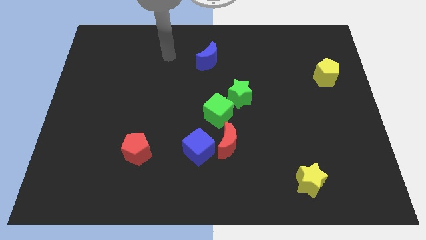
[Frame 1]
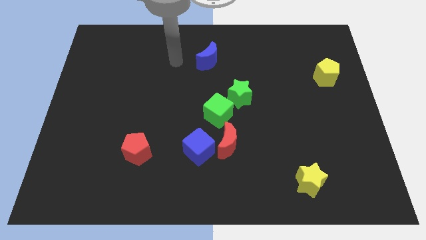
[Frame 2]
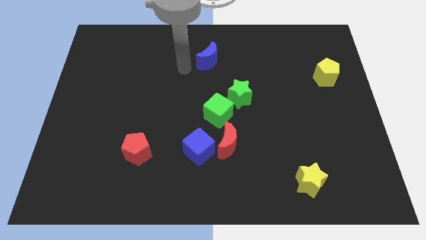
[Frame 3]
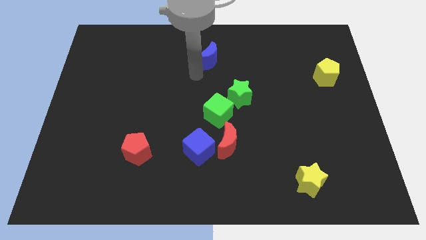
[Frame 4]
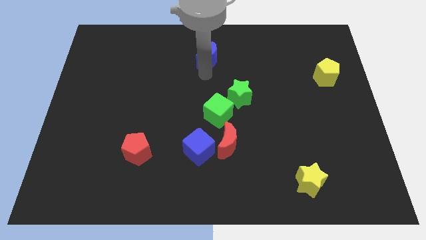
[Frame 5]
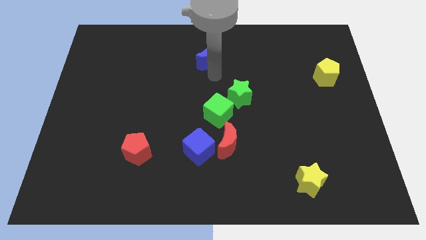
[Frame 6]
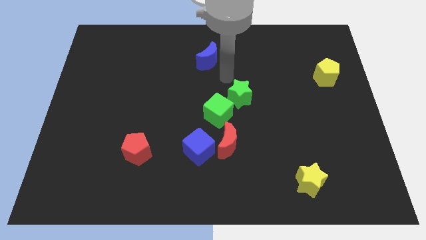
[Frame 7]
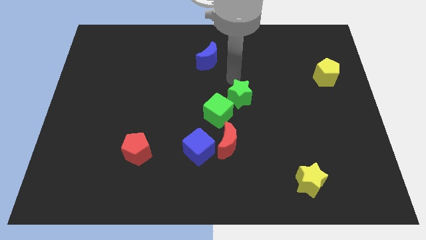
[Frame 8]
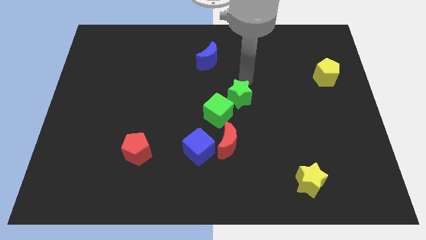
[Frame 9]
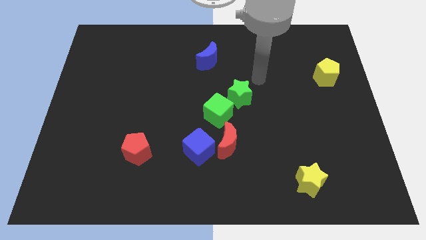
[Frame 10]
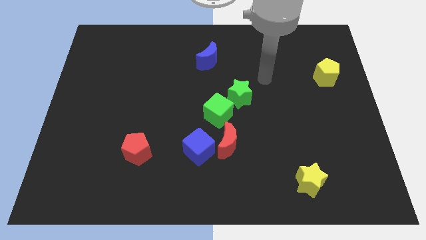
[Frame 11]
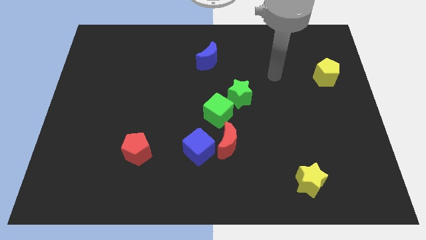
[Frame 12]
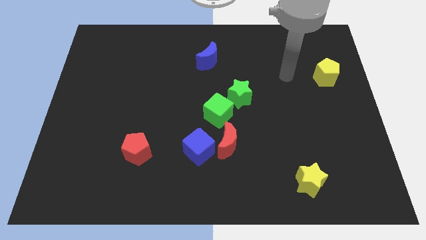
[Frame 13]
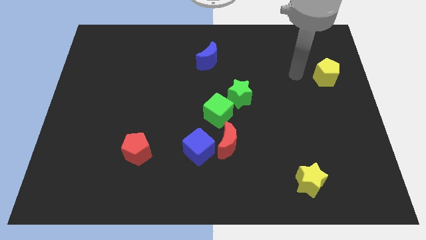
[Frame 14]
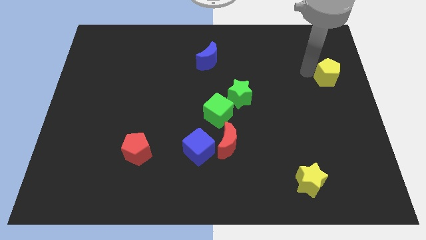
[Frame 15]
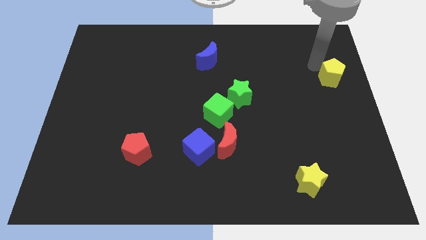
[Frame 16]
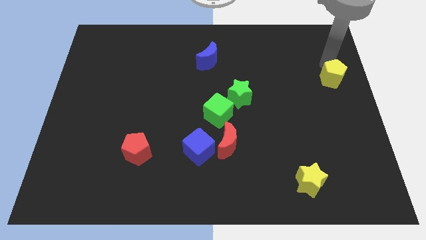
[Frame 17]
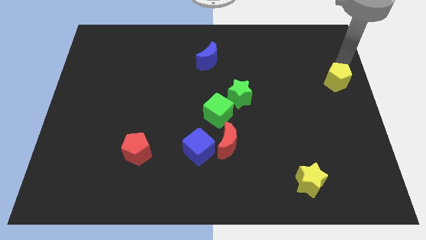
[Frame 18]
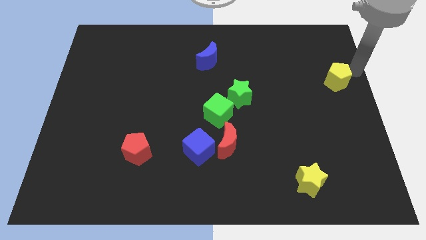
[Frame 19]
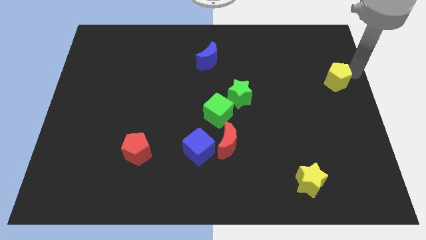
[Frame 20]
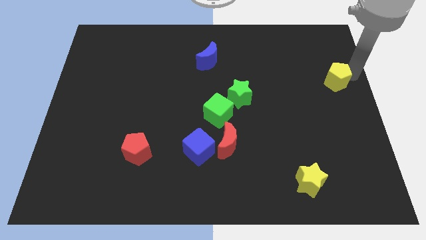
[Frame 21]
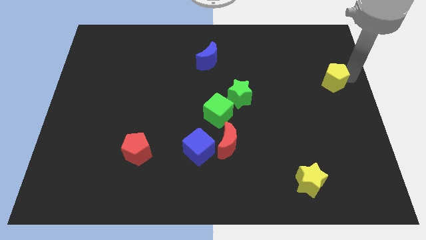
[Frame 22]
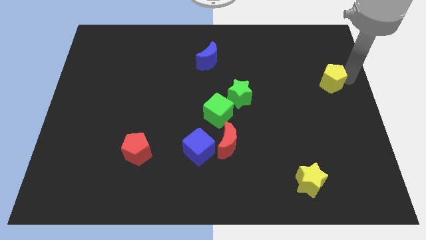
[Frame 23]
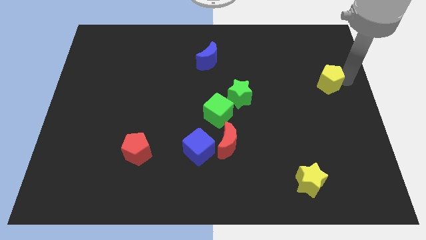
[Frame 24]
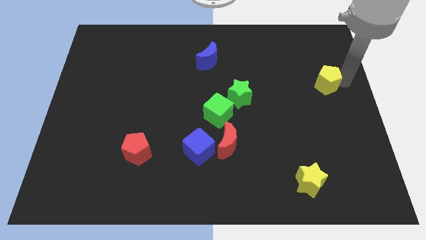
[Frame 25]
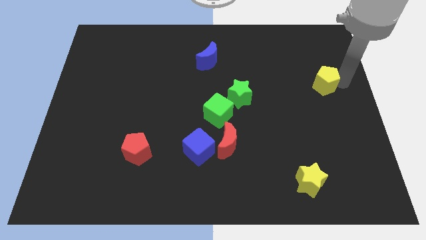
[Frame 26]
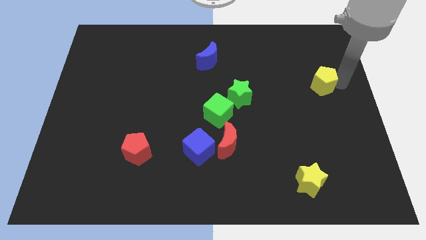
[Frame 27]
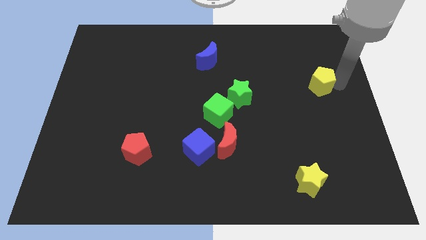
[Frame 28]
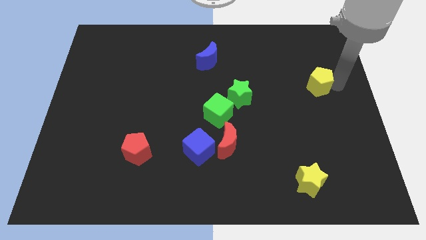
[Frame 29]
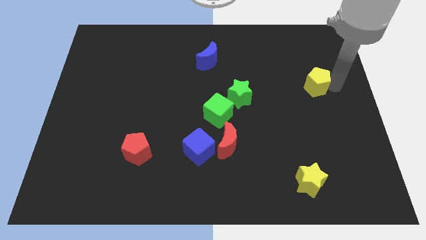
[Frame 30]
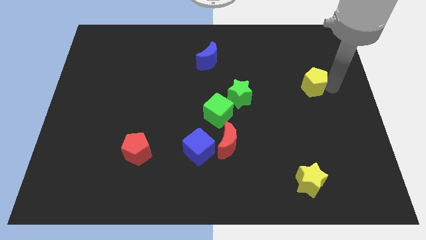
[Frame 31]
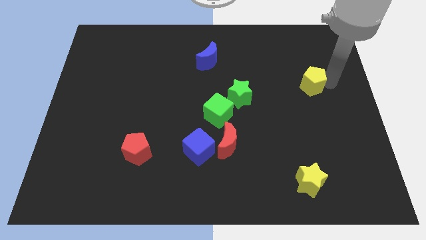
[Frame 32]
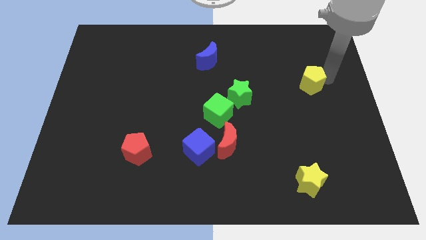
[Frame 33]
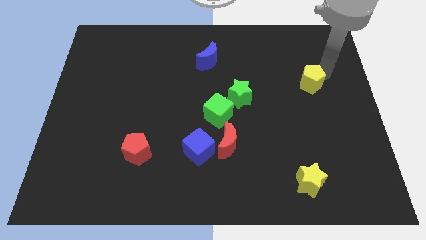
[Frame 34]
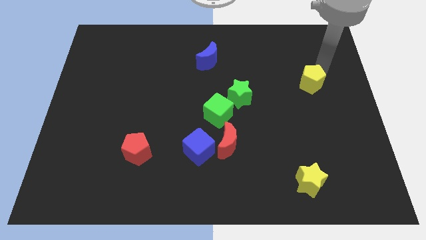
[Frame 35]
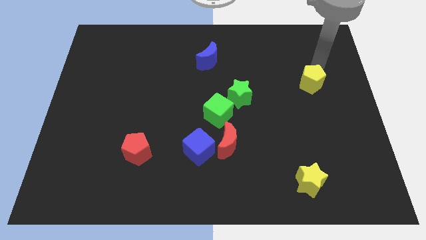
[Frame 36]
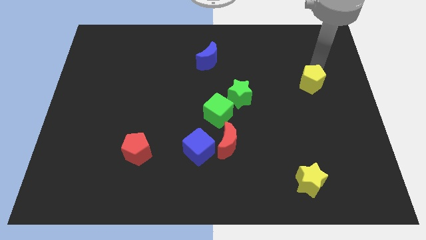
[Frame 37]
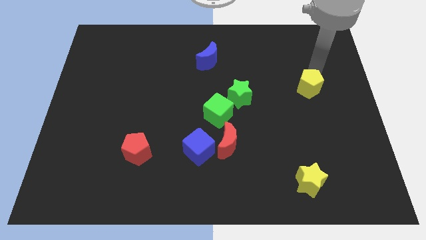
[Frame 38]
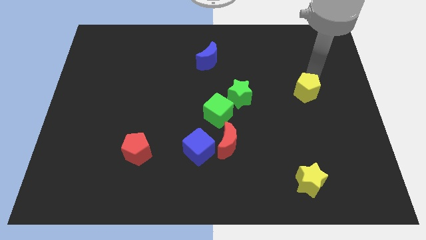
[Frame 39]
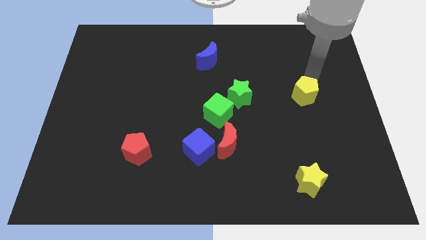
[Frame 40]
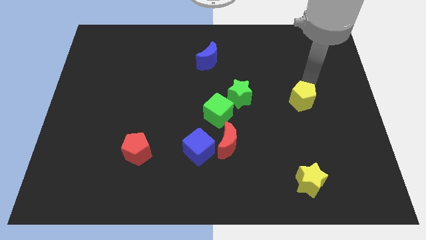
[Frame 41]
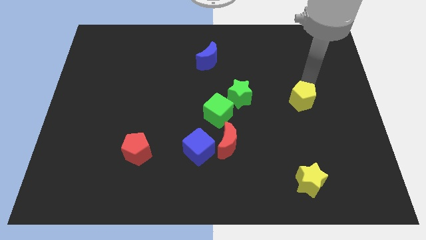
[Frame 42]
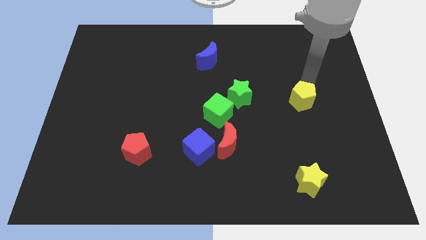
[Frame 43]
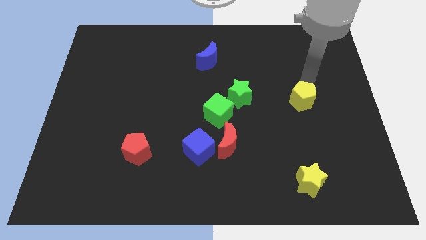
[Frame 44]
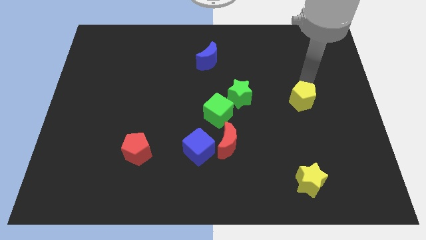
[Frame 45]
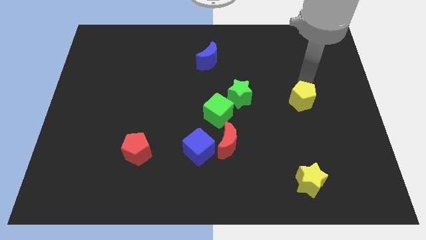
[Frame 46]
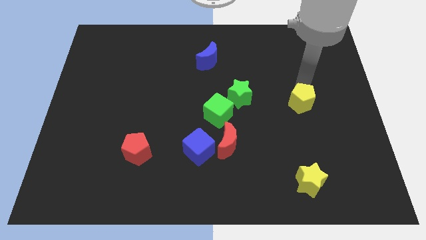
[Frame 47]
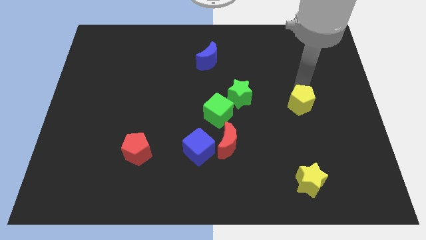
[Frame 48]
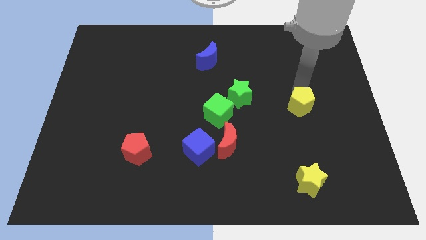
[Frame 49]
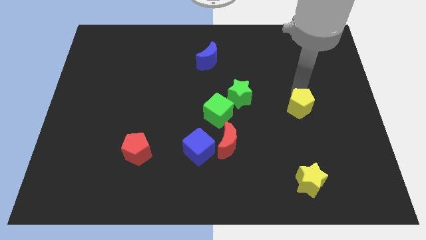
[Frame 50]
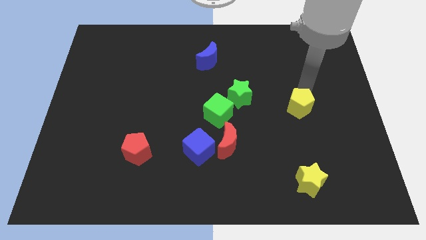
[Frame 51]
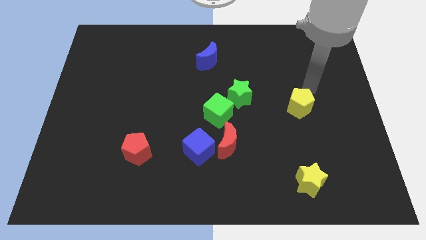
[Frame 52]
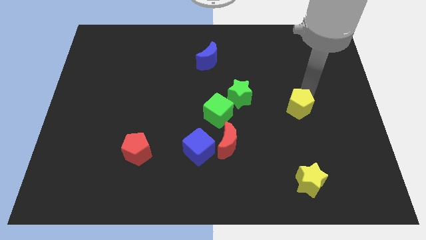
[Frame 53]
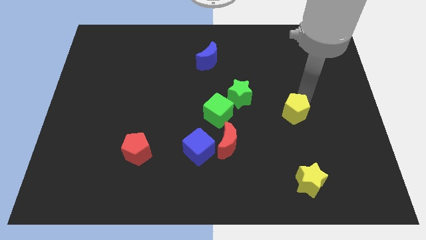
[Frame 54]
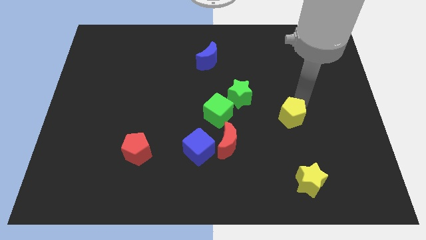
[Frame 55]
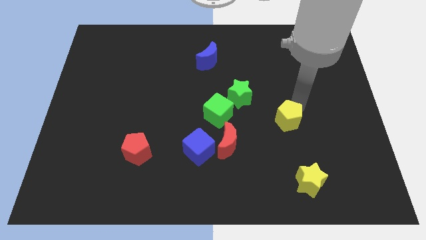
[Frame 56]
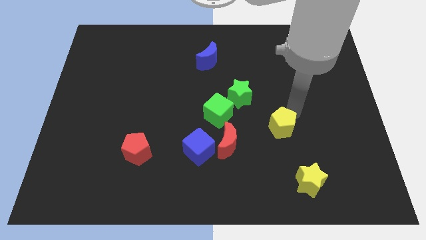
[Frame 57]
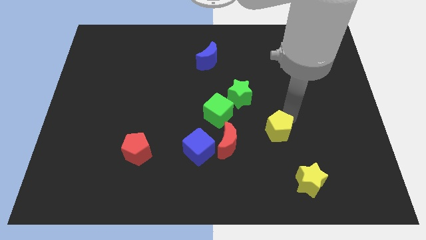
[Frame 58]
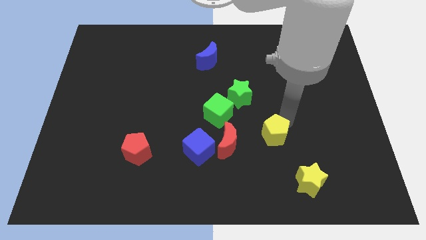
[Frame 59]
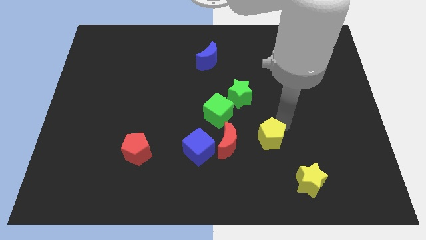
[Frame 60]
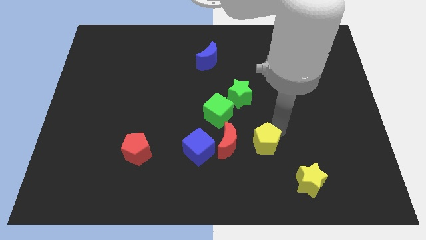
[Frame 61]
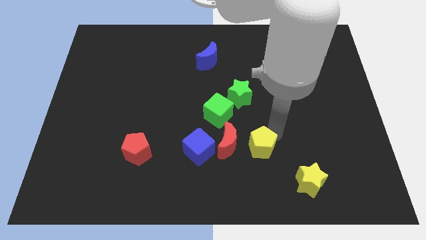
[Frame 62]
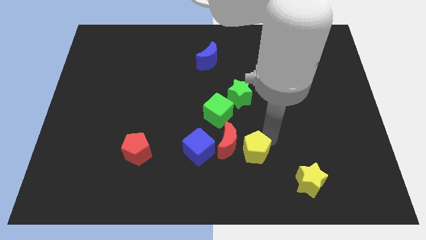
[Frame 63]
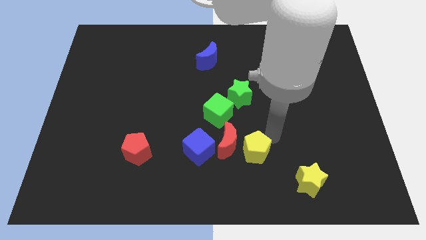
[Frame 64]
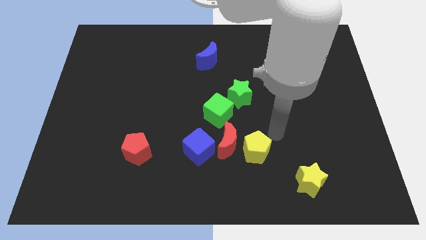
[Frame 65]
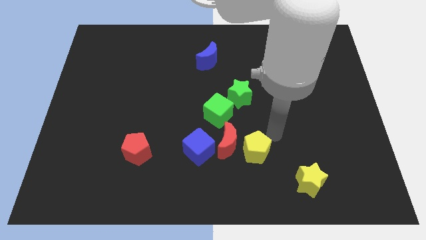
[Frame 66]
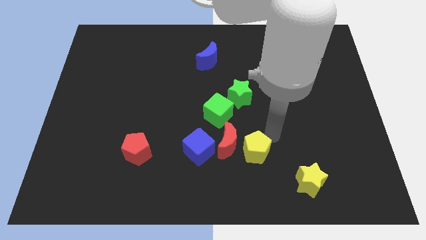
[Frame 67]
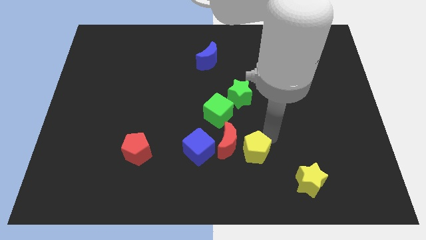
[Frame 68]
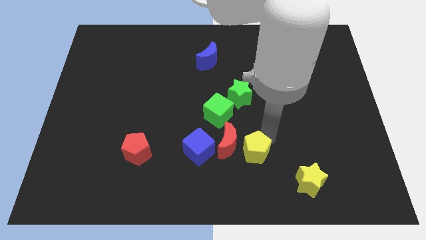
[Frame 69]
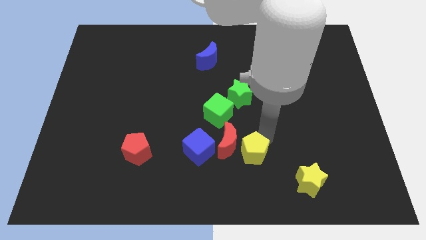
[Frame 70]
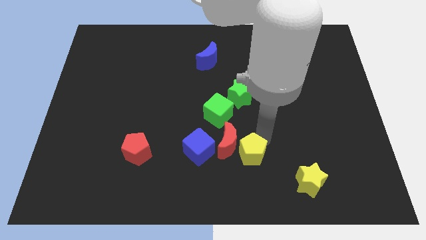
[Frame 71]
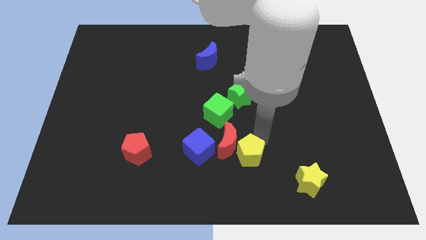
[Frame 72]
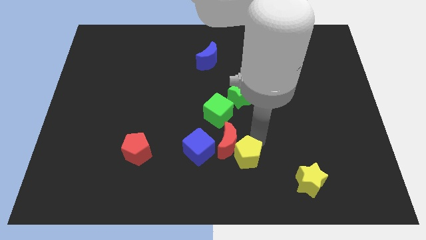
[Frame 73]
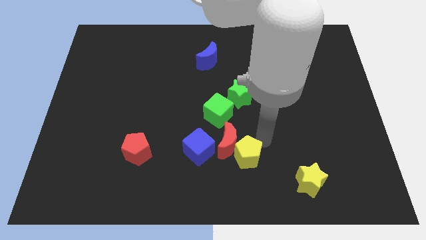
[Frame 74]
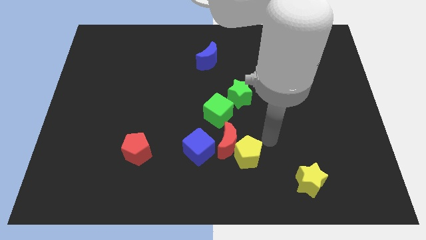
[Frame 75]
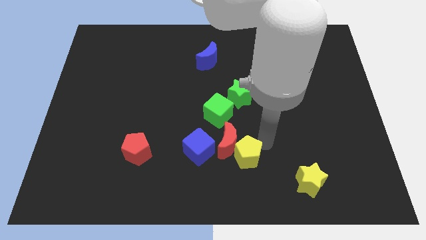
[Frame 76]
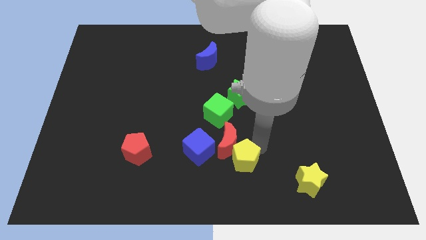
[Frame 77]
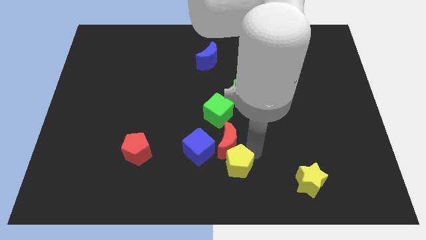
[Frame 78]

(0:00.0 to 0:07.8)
move the yellow pentagon to the bottom right of the blue cube
